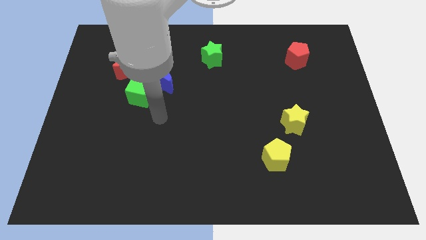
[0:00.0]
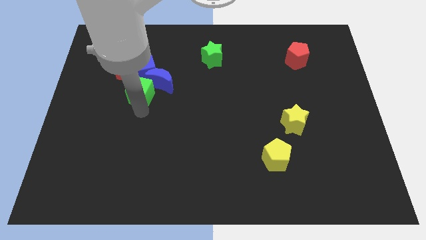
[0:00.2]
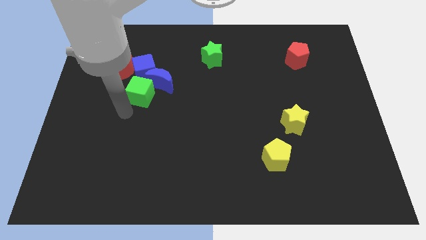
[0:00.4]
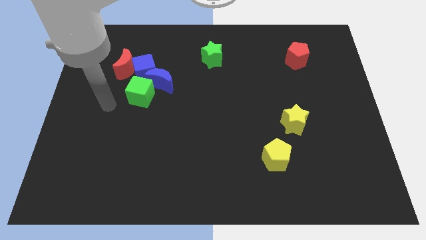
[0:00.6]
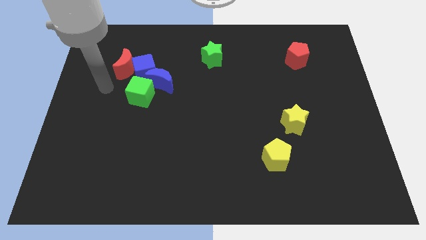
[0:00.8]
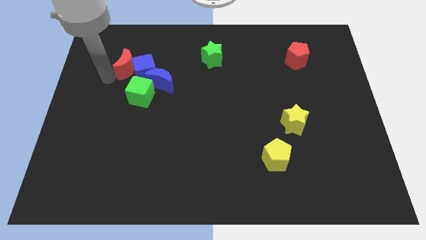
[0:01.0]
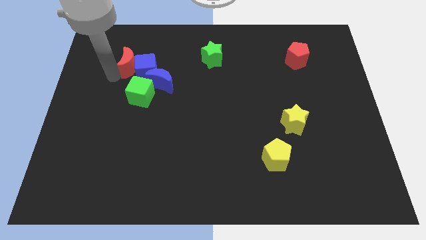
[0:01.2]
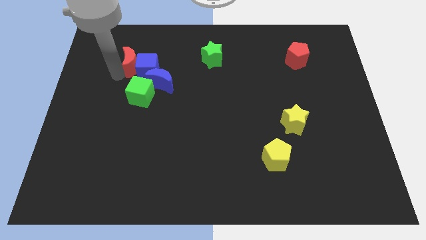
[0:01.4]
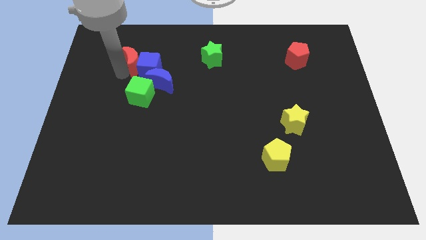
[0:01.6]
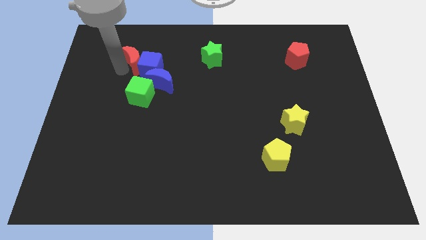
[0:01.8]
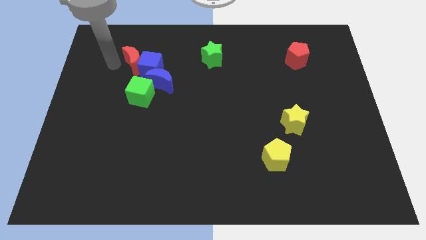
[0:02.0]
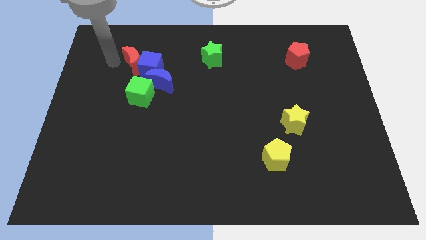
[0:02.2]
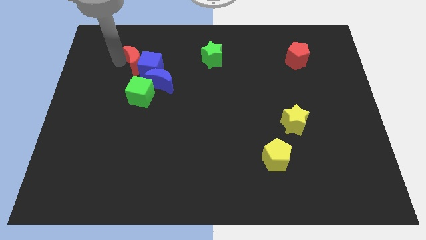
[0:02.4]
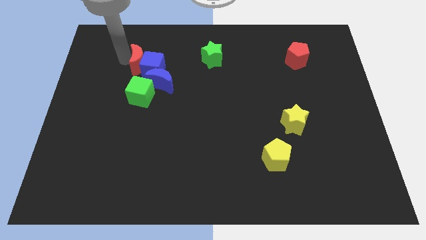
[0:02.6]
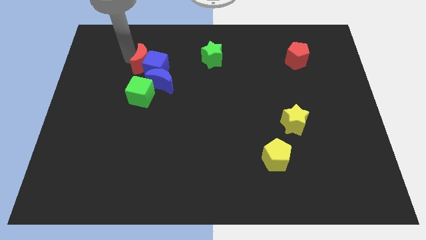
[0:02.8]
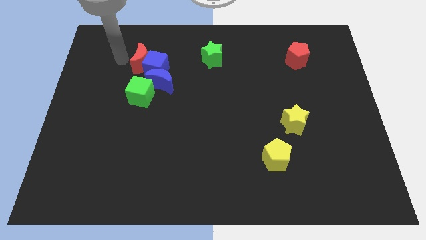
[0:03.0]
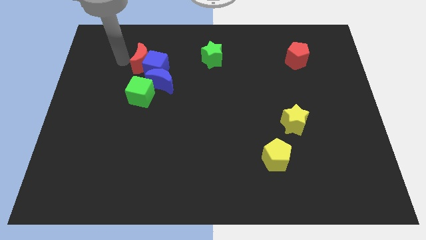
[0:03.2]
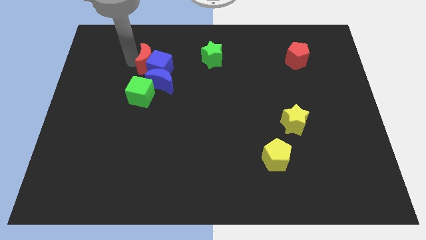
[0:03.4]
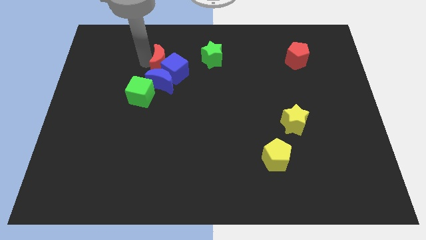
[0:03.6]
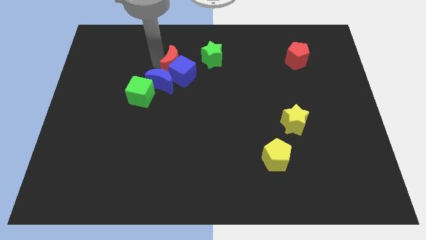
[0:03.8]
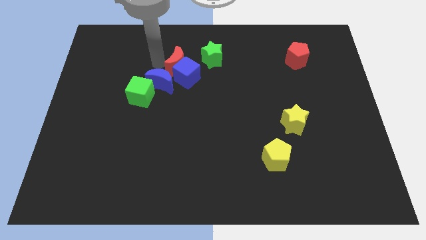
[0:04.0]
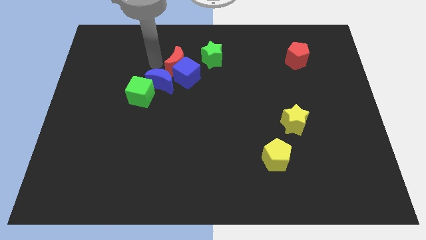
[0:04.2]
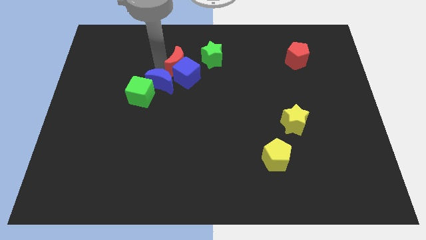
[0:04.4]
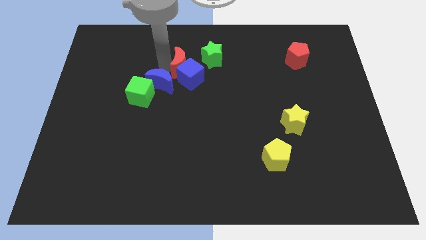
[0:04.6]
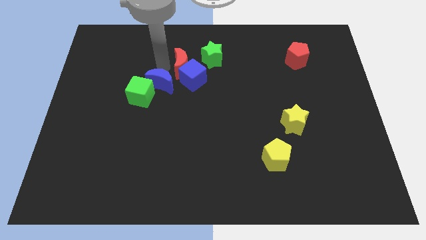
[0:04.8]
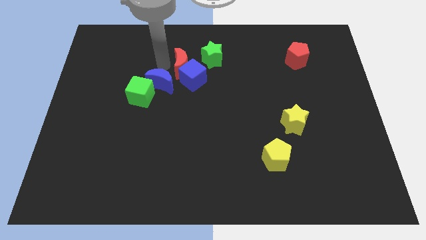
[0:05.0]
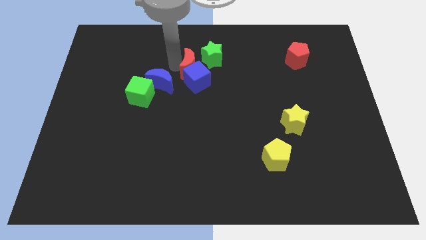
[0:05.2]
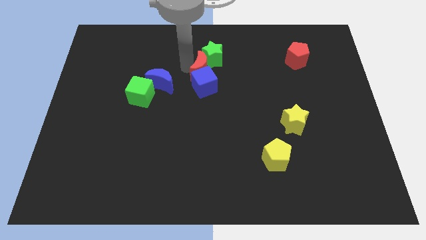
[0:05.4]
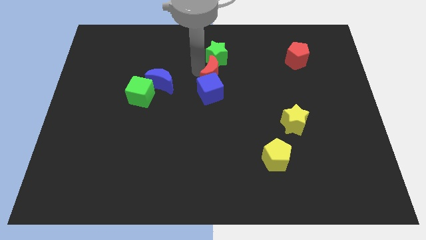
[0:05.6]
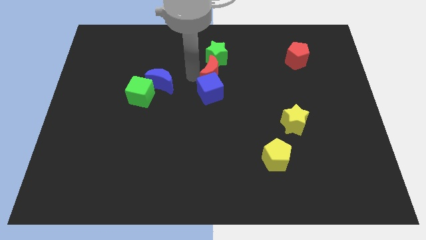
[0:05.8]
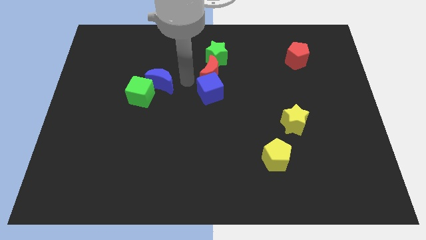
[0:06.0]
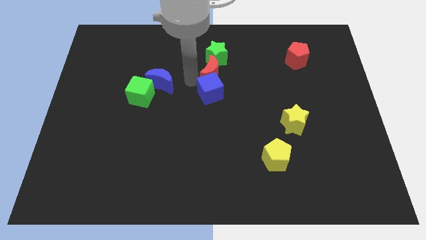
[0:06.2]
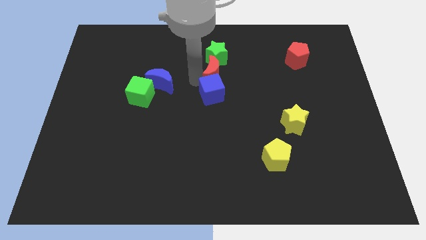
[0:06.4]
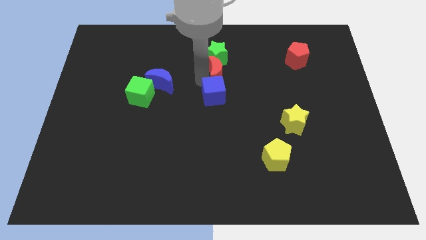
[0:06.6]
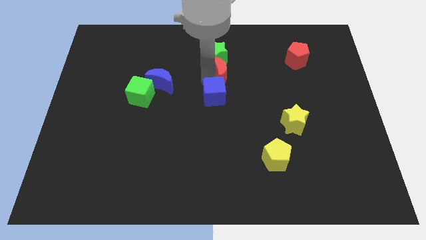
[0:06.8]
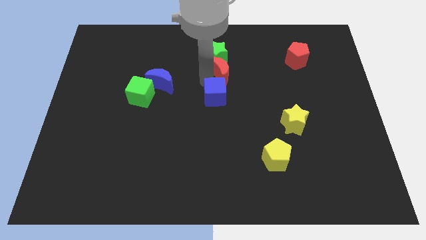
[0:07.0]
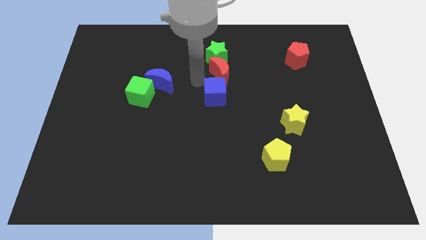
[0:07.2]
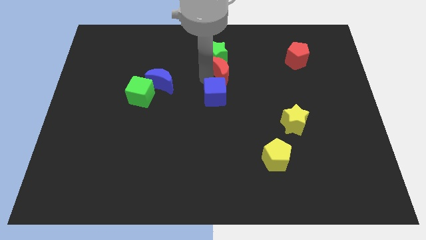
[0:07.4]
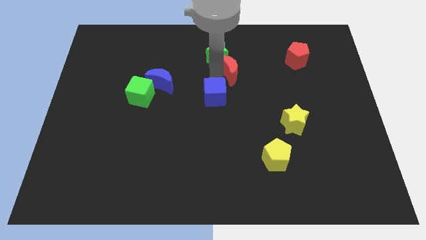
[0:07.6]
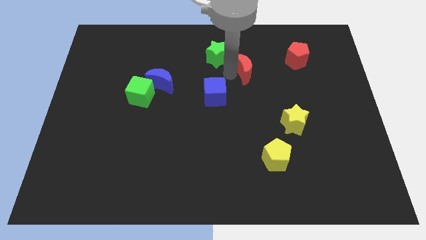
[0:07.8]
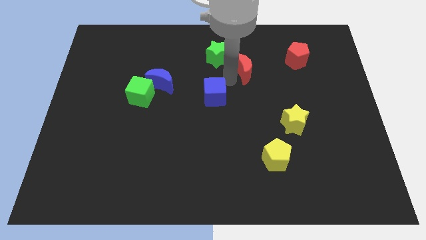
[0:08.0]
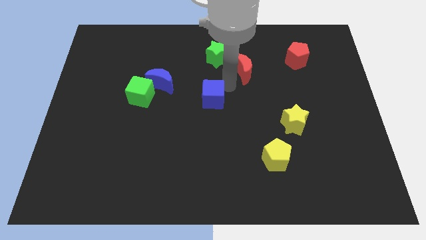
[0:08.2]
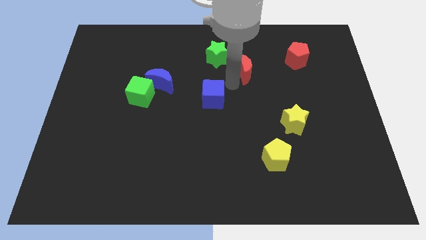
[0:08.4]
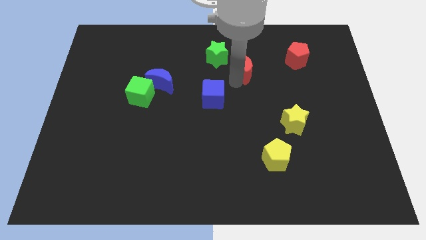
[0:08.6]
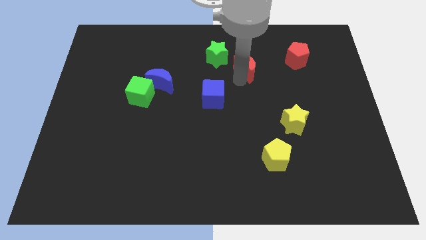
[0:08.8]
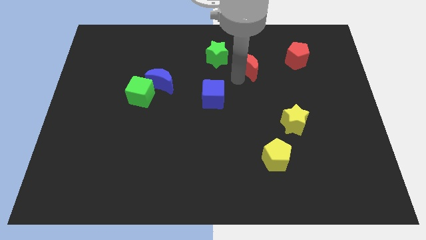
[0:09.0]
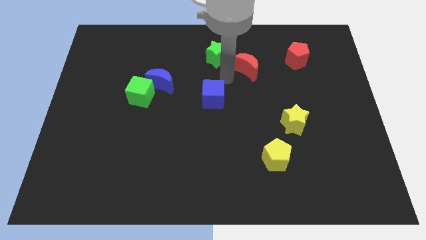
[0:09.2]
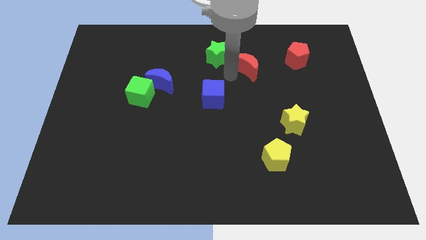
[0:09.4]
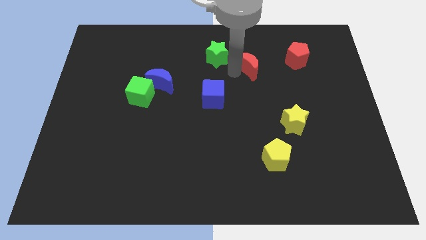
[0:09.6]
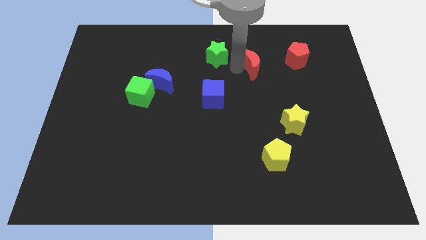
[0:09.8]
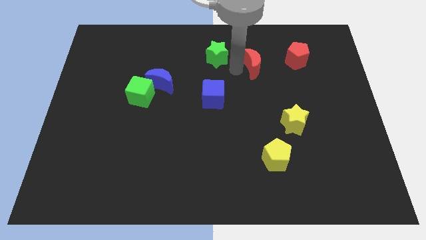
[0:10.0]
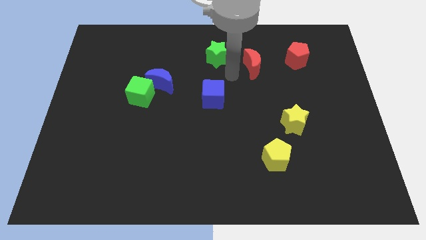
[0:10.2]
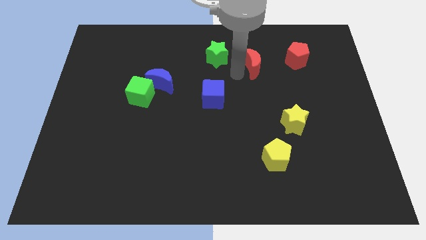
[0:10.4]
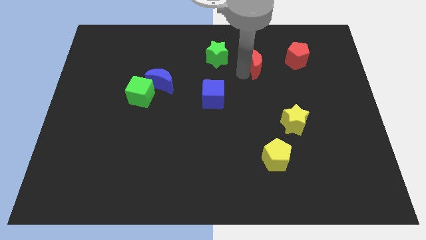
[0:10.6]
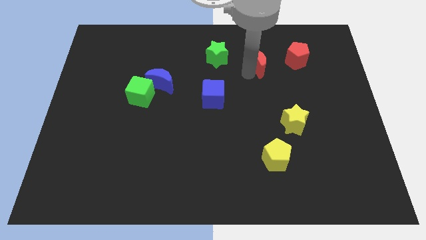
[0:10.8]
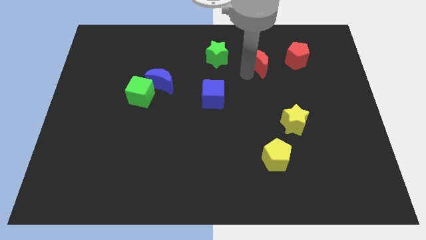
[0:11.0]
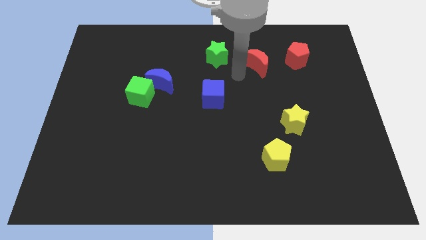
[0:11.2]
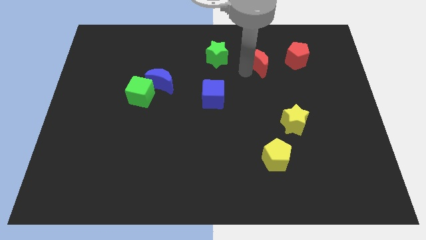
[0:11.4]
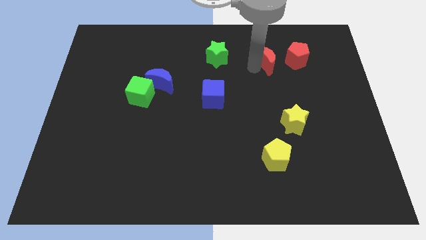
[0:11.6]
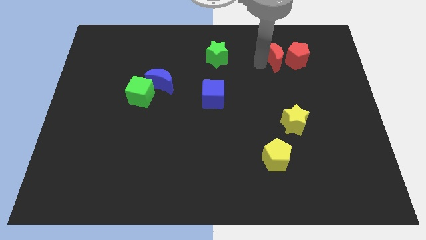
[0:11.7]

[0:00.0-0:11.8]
slide the red moon towards the red pentagon

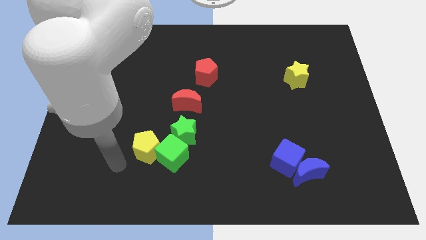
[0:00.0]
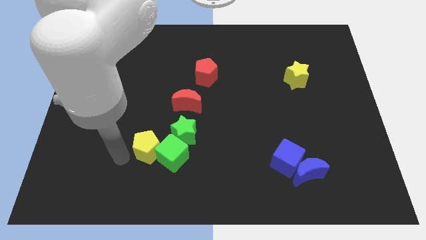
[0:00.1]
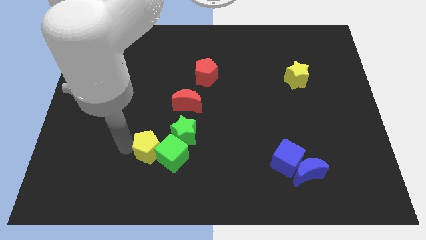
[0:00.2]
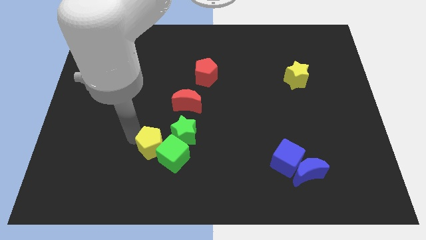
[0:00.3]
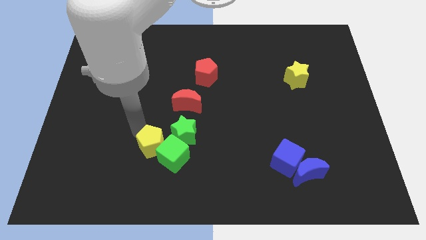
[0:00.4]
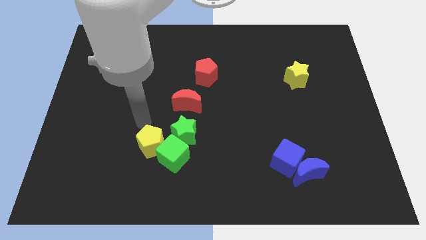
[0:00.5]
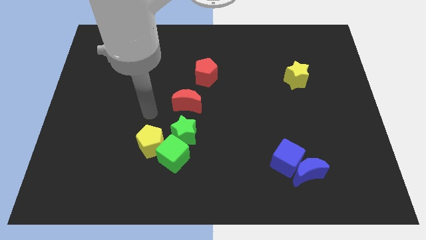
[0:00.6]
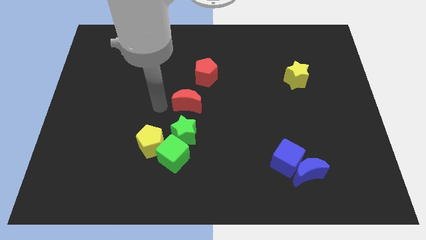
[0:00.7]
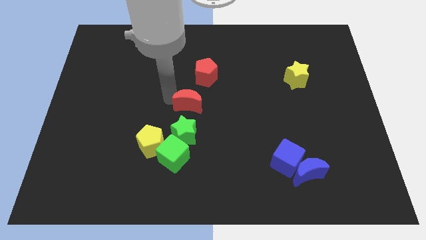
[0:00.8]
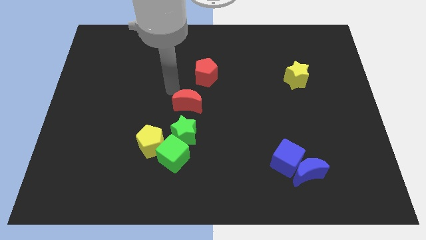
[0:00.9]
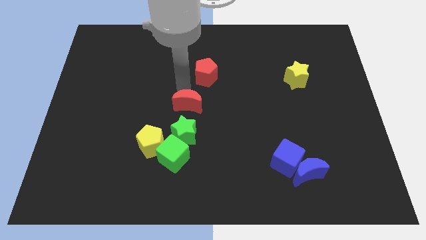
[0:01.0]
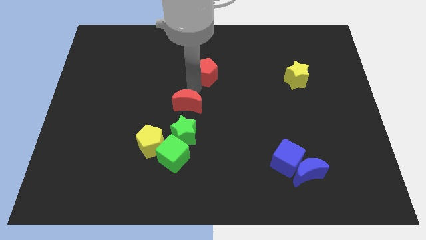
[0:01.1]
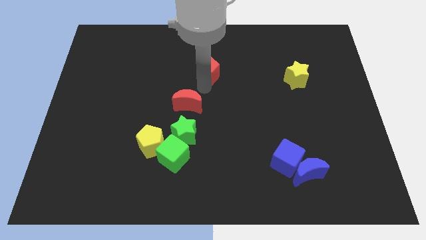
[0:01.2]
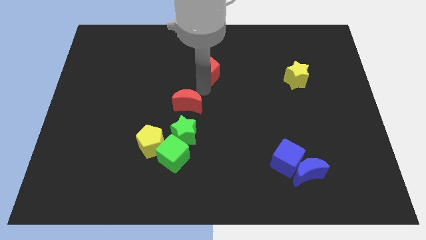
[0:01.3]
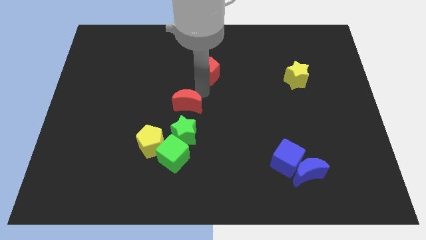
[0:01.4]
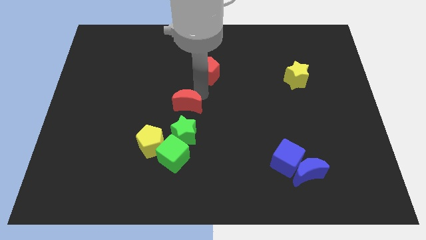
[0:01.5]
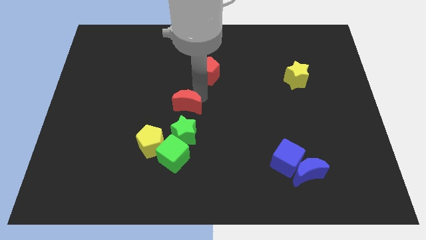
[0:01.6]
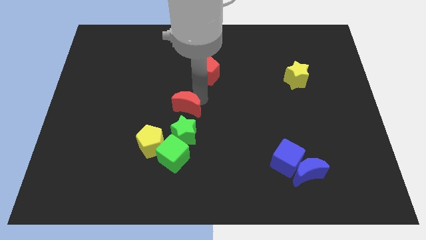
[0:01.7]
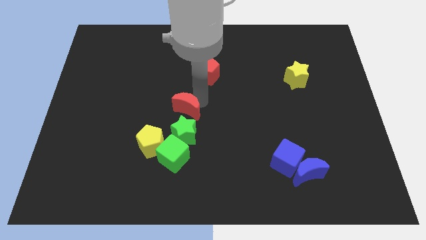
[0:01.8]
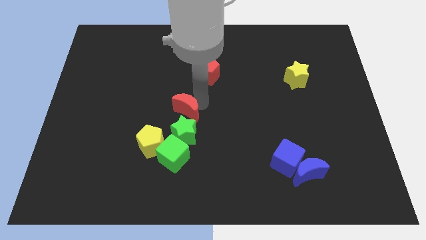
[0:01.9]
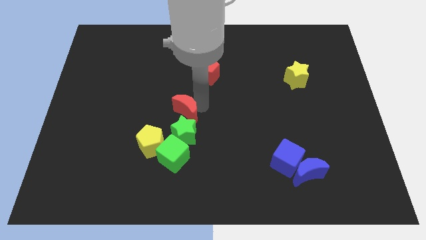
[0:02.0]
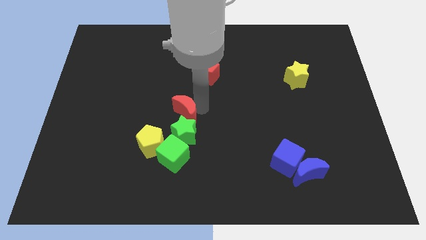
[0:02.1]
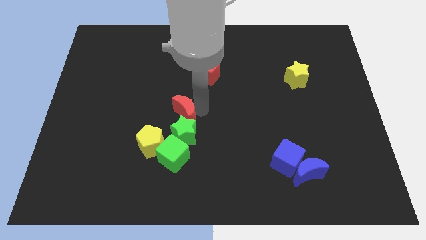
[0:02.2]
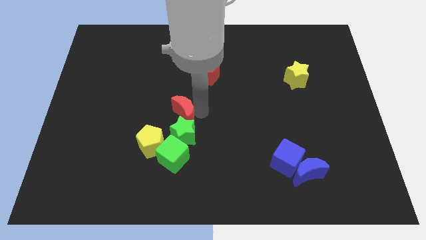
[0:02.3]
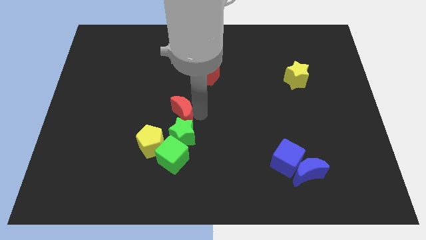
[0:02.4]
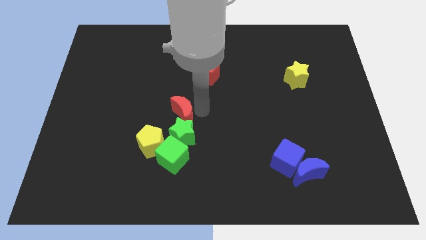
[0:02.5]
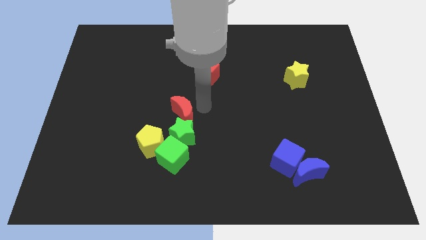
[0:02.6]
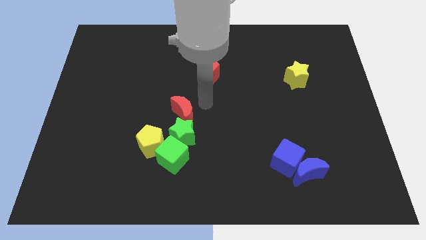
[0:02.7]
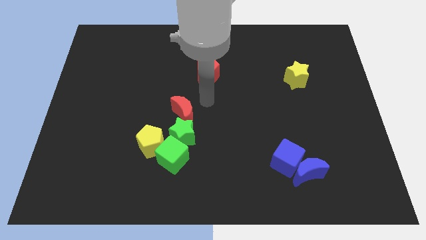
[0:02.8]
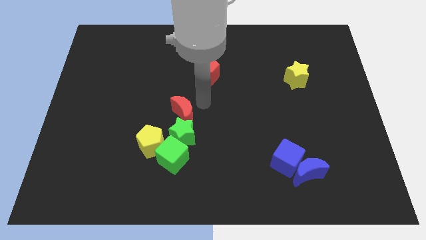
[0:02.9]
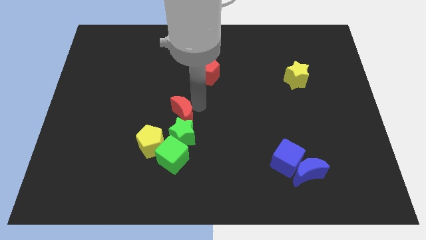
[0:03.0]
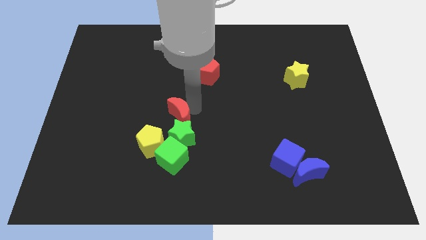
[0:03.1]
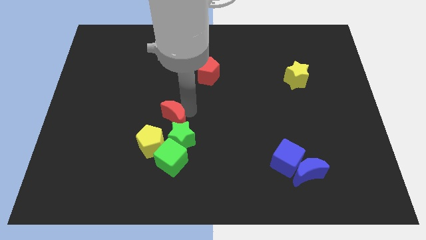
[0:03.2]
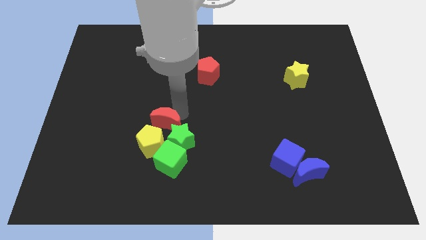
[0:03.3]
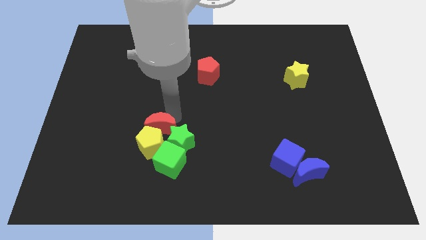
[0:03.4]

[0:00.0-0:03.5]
push the red moon close to the yellow pentagon
